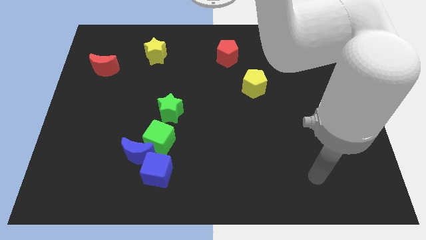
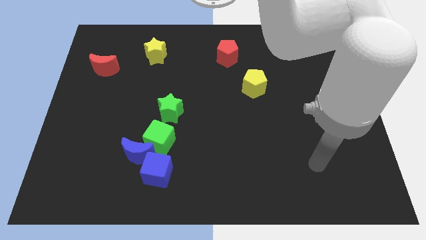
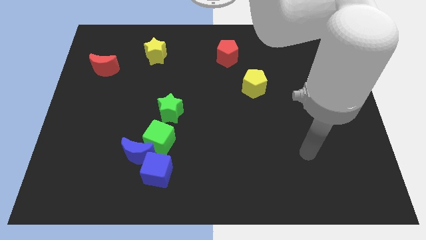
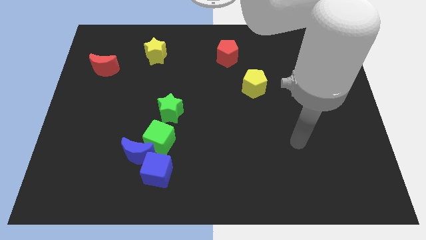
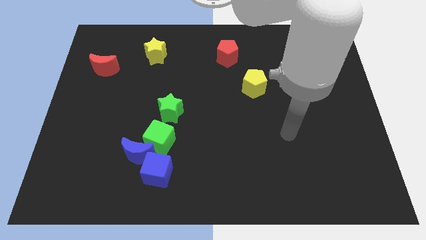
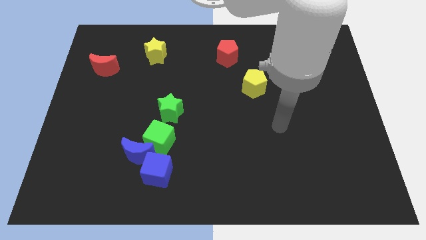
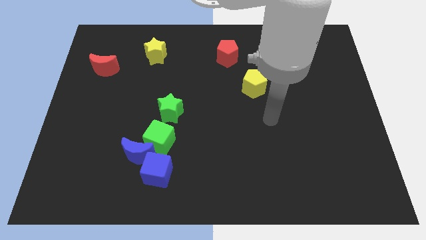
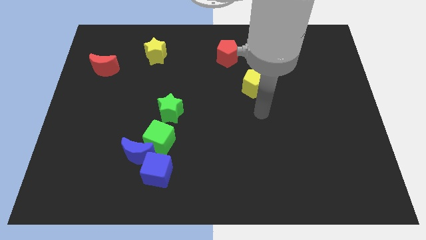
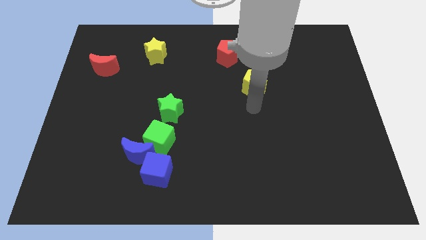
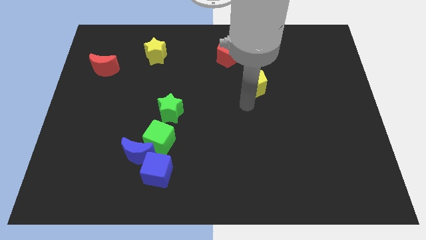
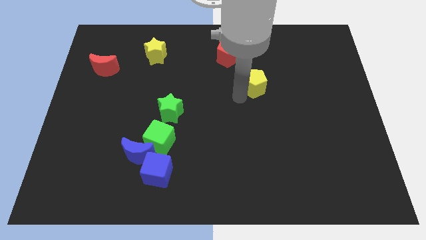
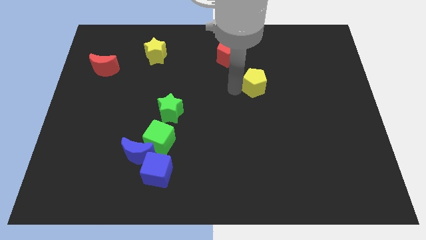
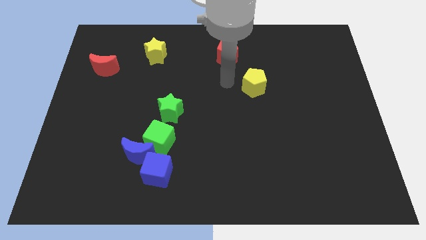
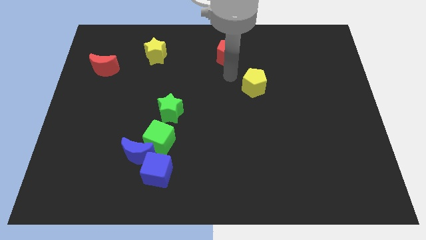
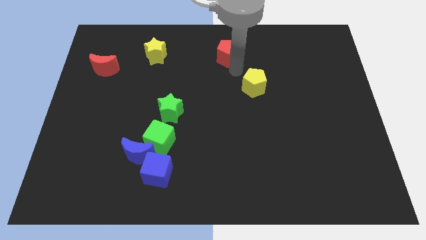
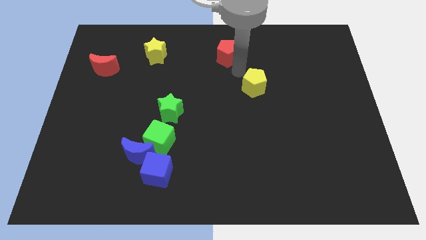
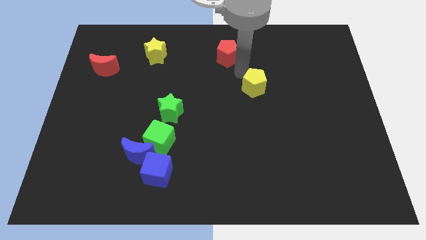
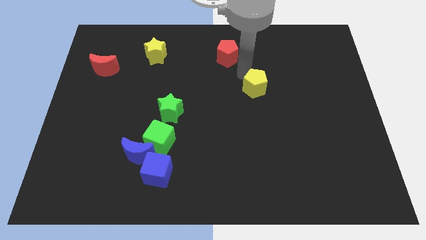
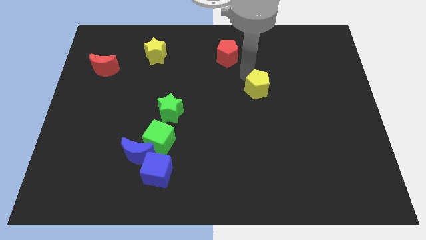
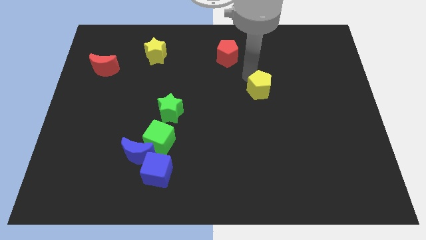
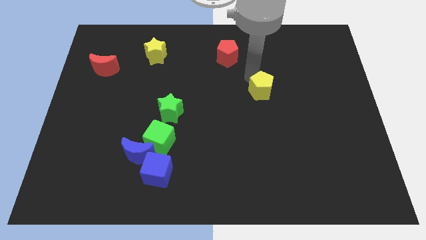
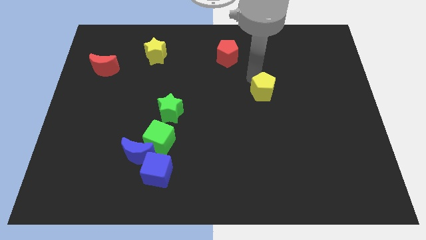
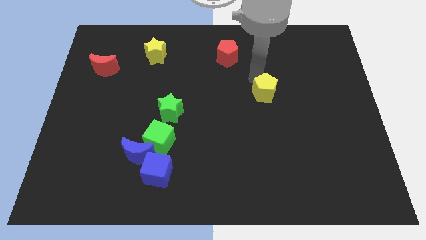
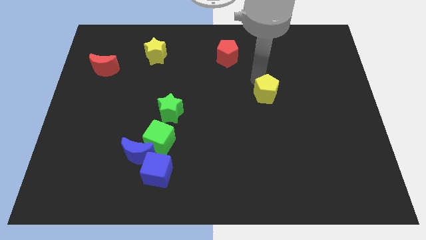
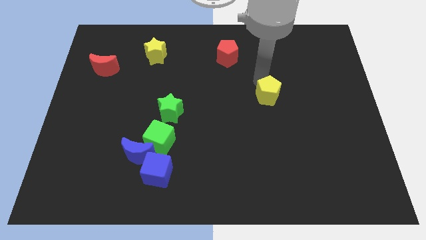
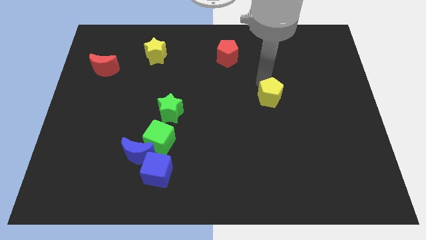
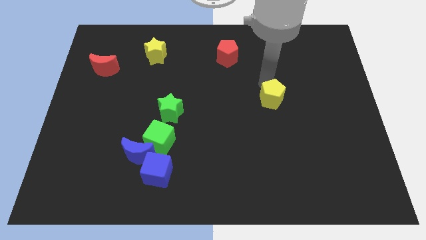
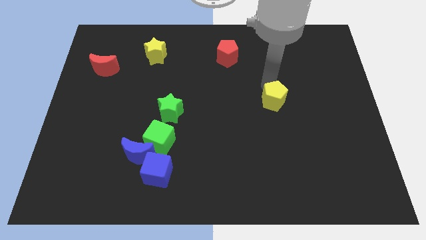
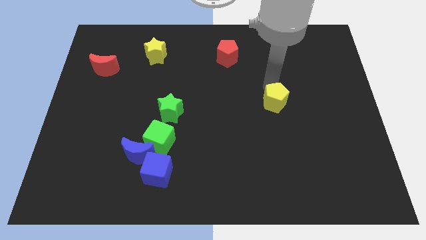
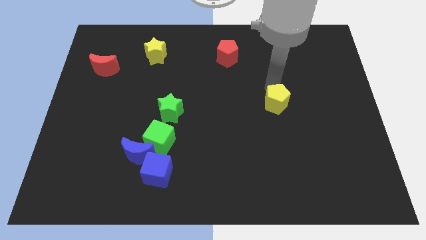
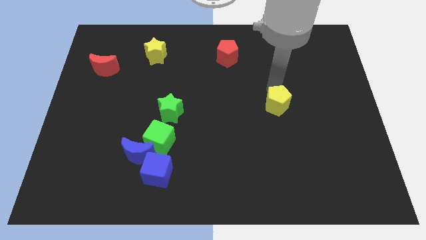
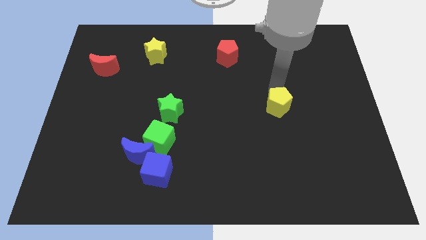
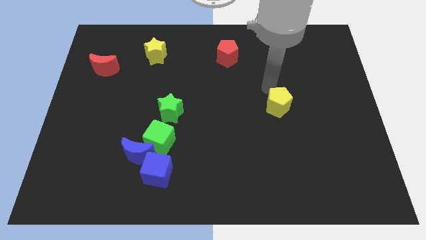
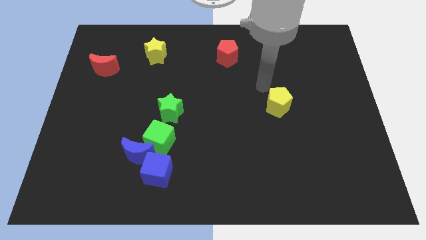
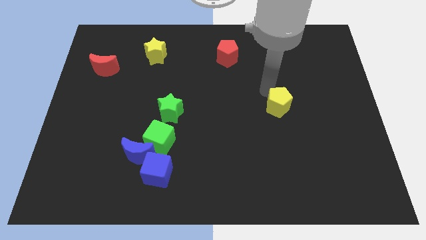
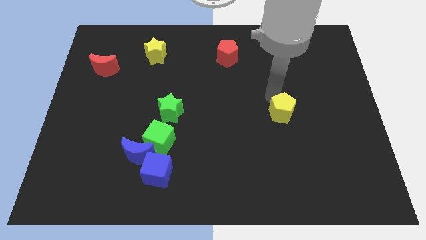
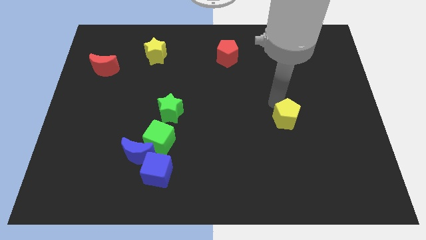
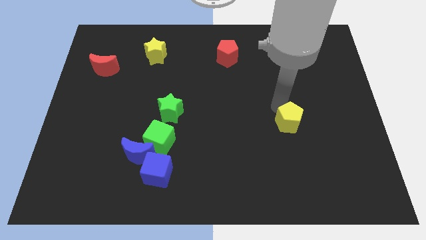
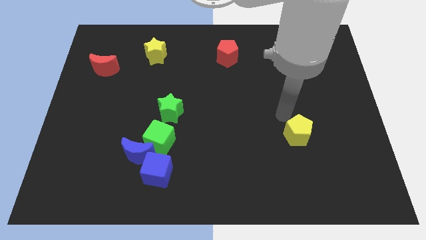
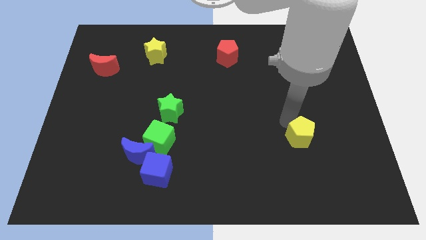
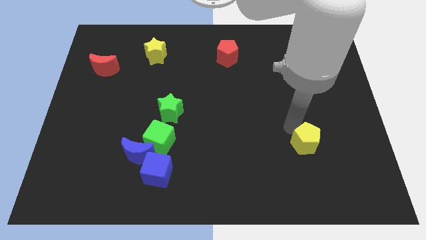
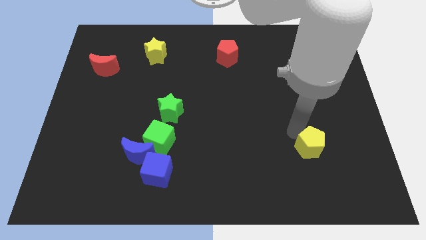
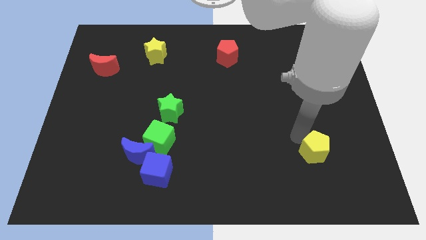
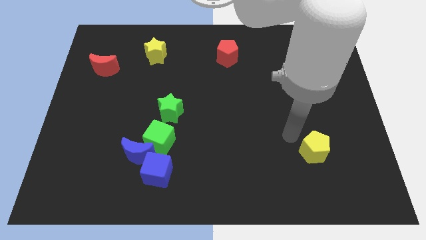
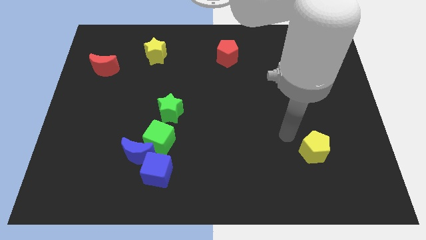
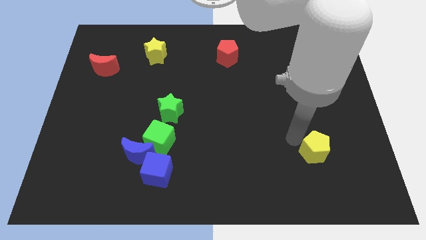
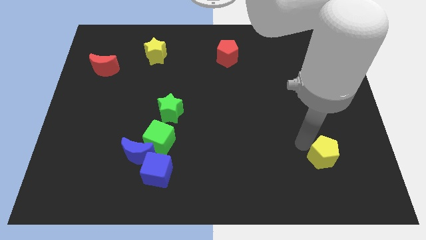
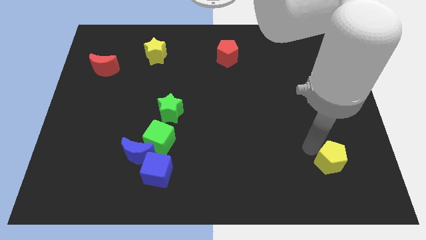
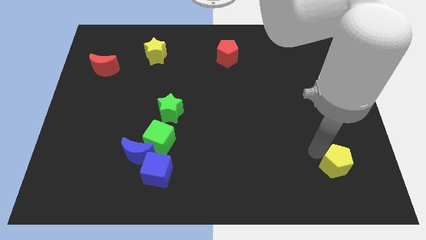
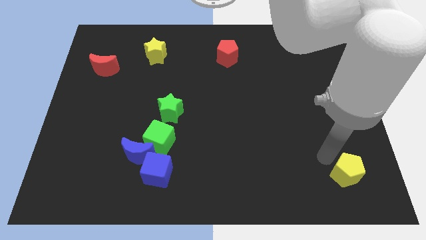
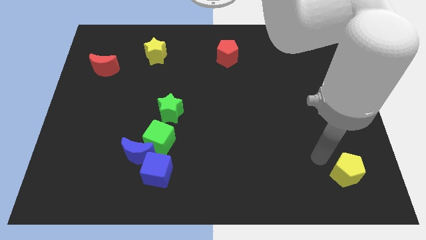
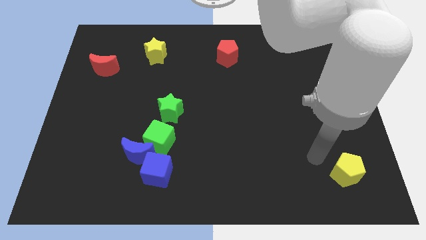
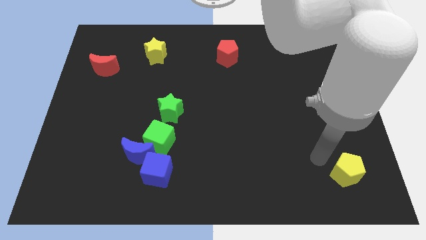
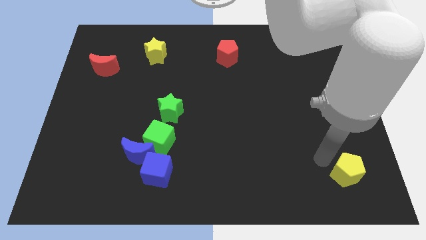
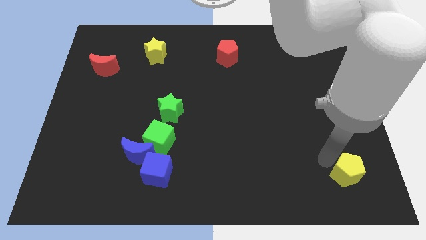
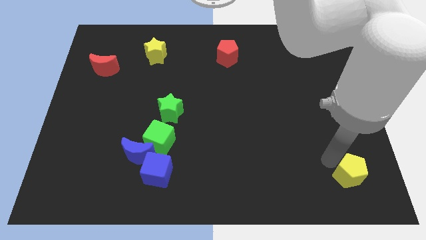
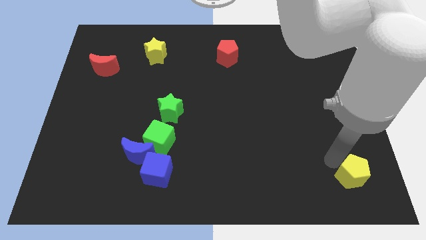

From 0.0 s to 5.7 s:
put the yellow pentagon to the bottom right corner

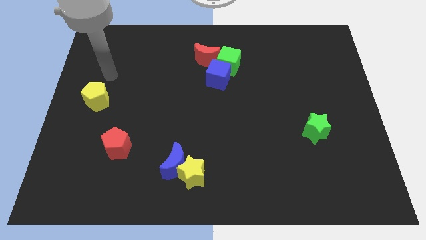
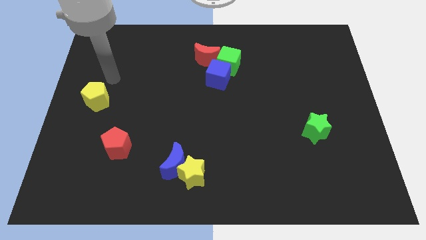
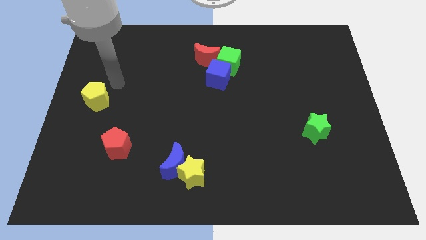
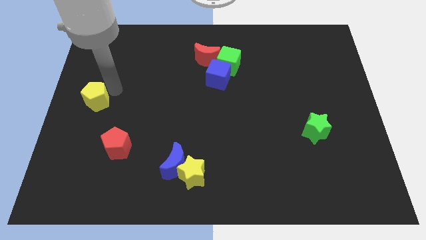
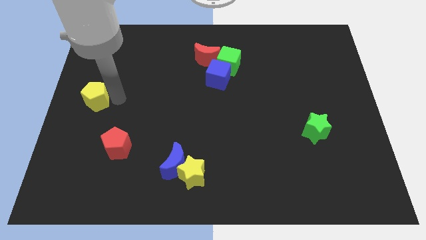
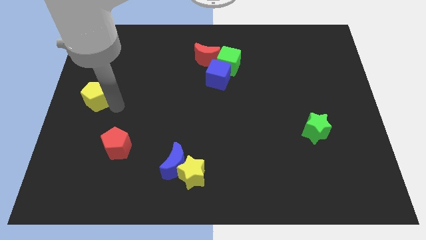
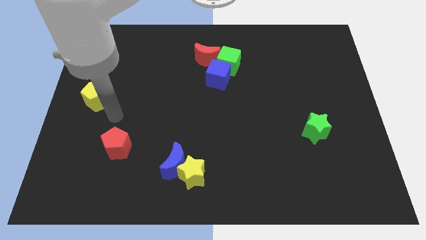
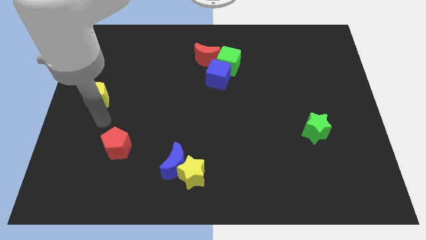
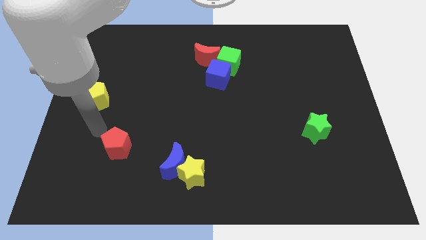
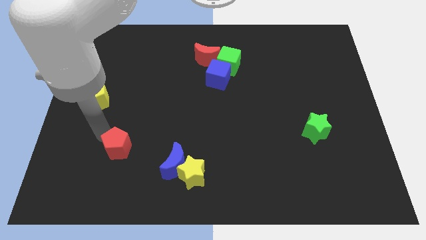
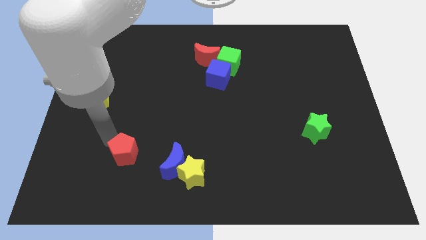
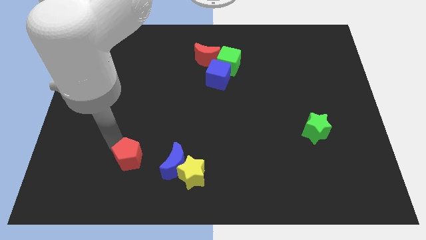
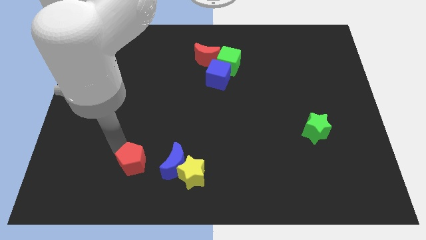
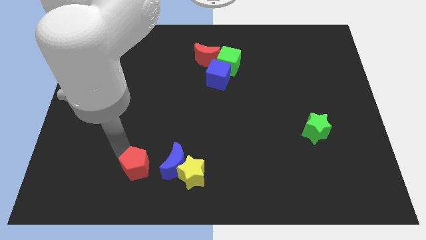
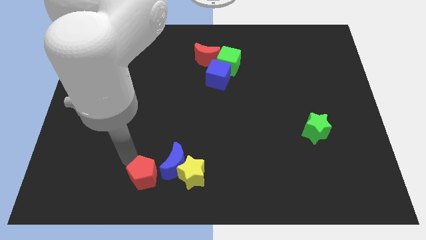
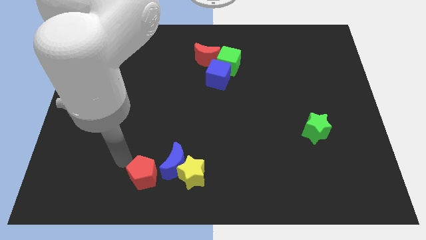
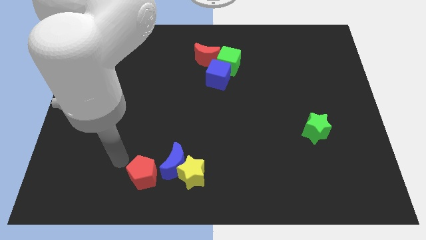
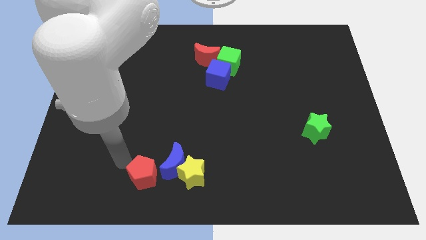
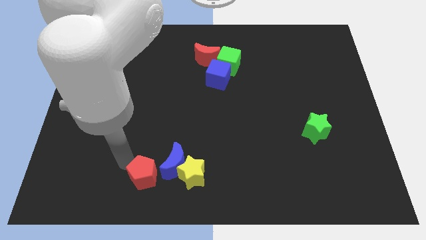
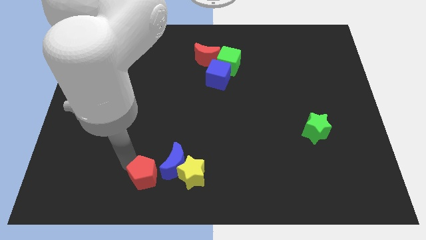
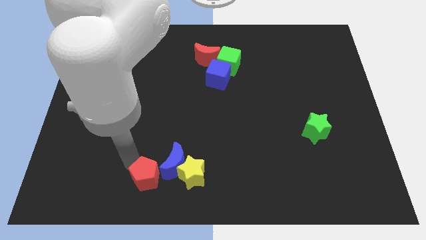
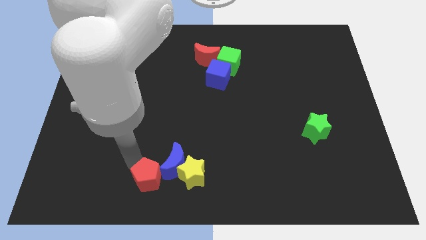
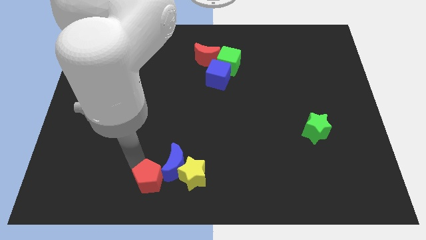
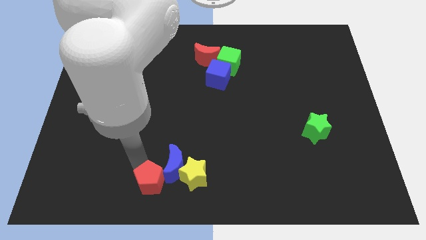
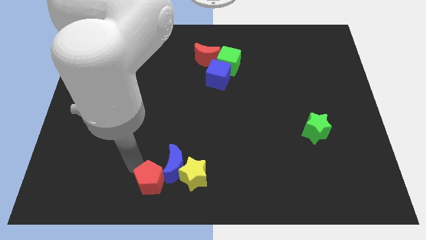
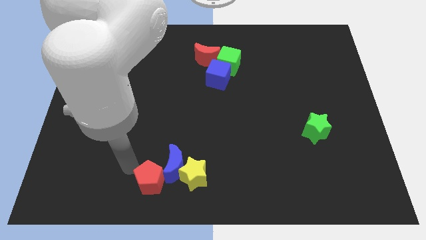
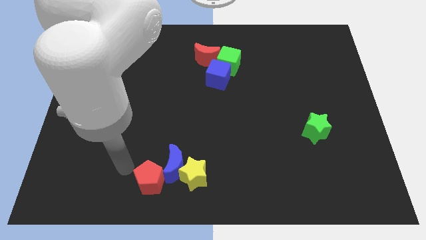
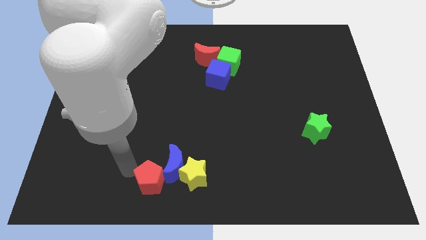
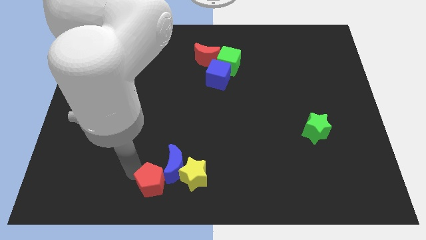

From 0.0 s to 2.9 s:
slide the red pentagon to the bottom side
